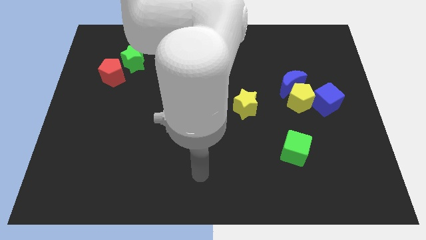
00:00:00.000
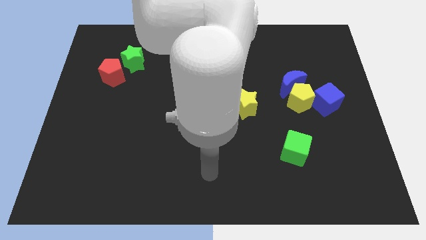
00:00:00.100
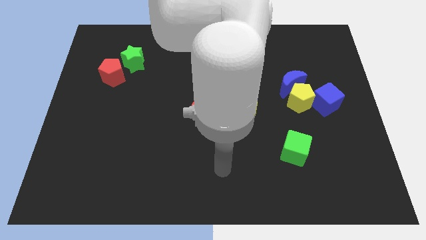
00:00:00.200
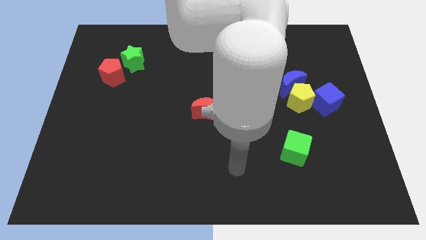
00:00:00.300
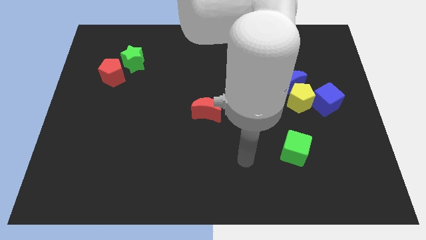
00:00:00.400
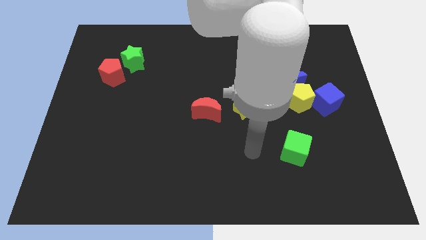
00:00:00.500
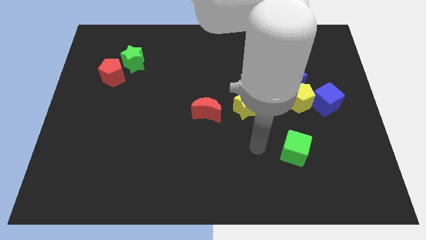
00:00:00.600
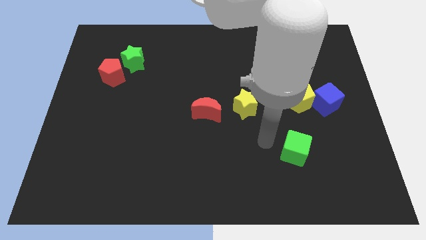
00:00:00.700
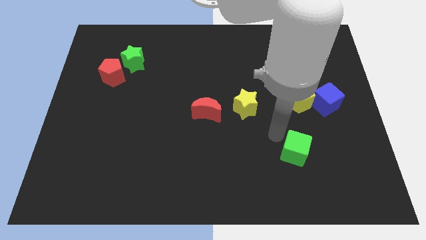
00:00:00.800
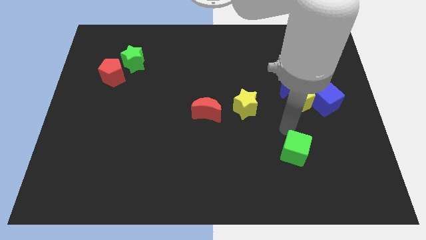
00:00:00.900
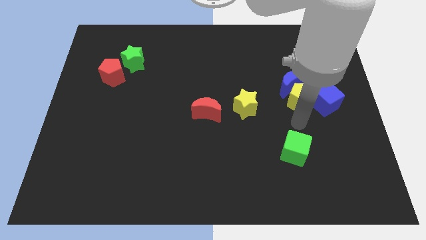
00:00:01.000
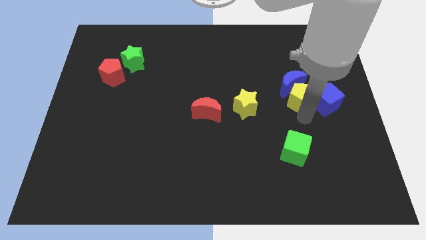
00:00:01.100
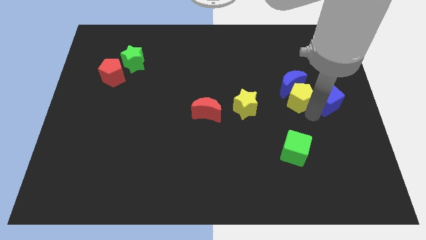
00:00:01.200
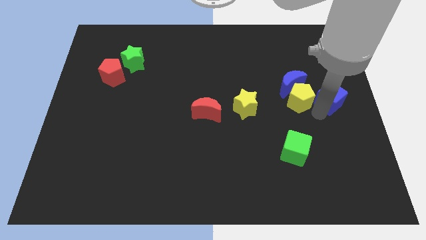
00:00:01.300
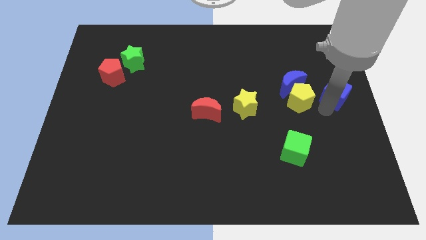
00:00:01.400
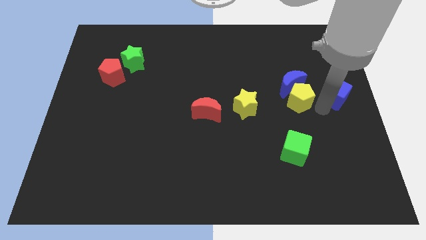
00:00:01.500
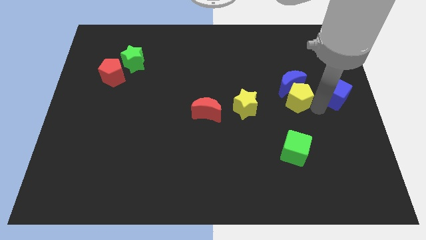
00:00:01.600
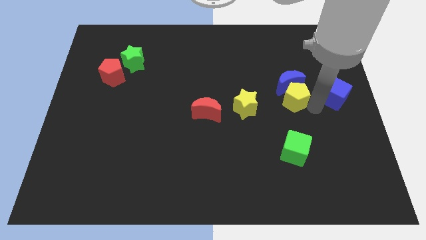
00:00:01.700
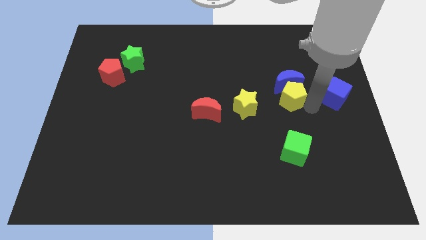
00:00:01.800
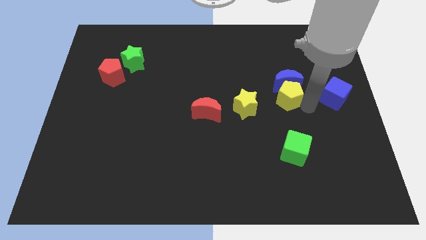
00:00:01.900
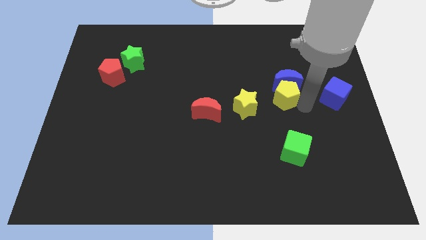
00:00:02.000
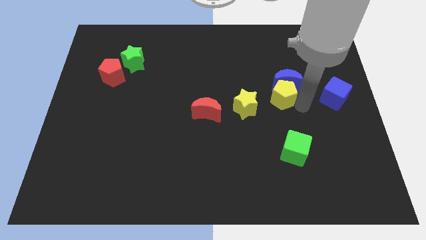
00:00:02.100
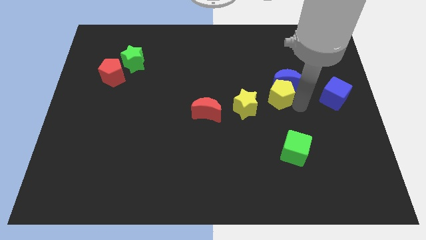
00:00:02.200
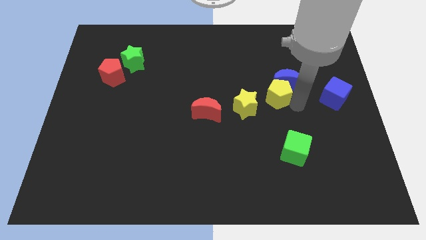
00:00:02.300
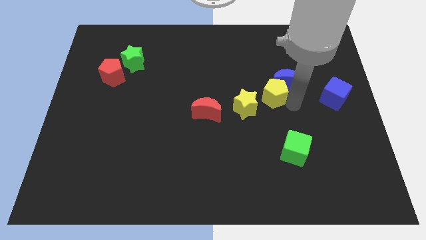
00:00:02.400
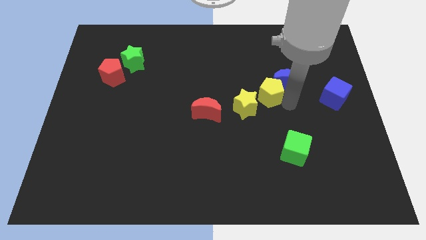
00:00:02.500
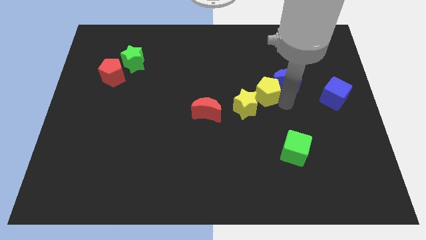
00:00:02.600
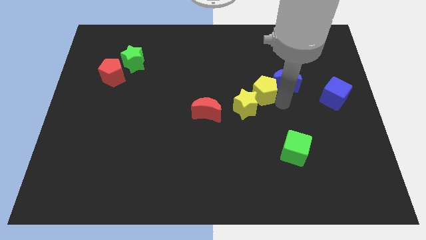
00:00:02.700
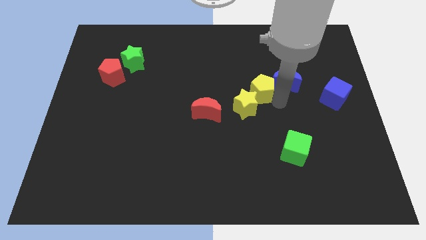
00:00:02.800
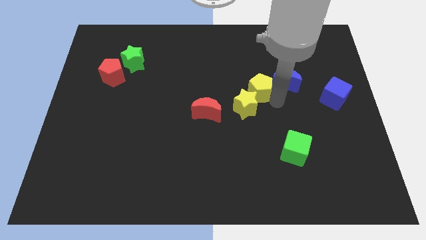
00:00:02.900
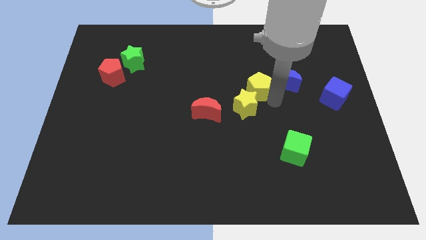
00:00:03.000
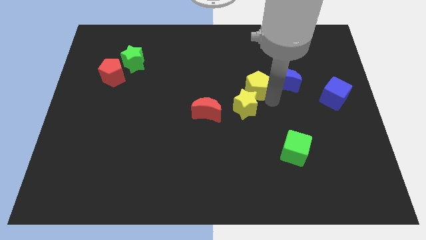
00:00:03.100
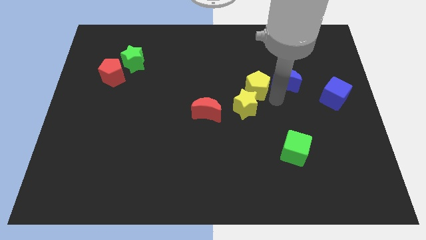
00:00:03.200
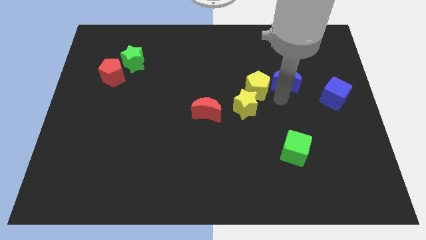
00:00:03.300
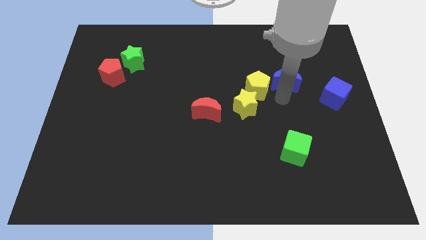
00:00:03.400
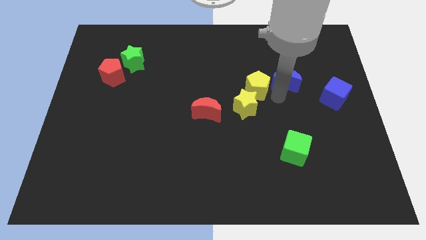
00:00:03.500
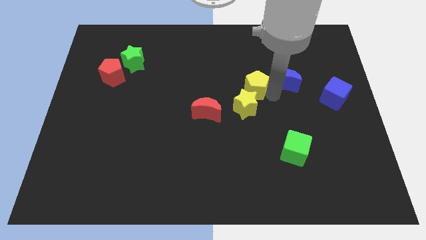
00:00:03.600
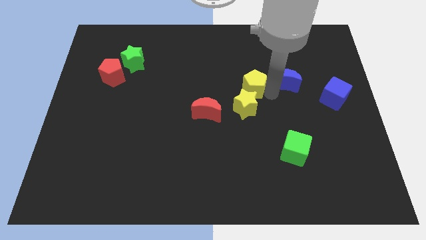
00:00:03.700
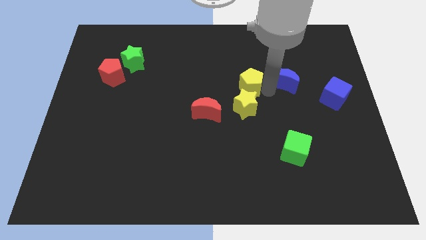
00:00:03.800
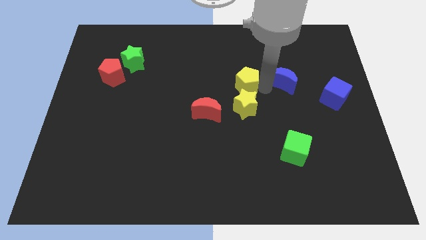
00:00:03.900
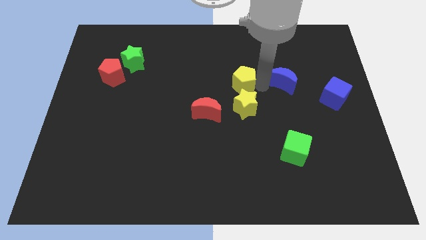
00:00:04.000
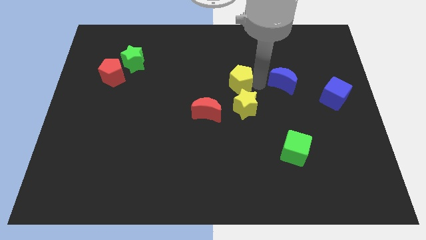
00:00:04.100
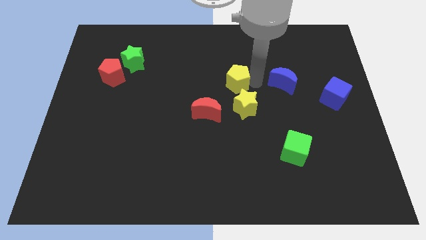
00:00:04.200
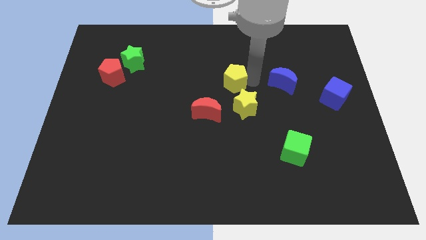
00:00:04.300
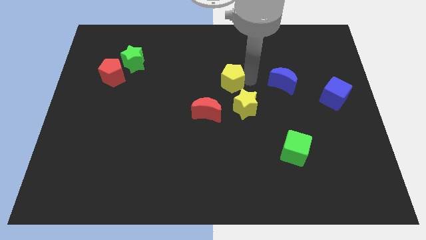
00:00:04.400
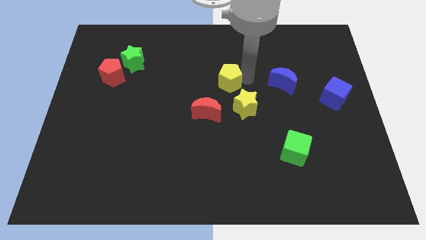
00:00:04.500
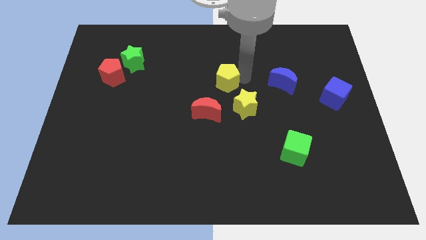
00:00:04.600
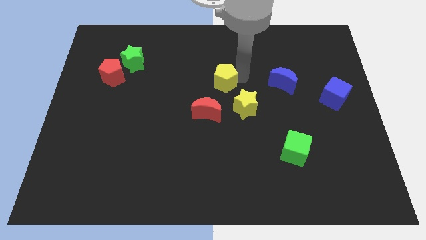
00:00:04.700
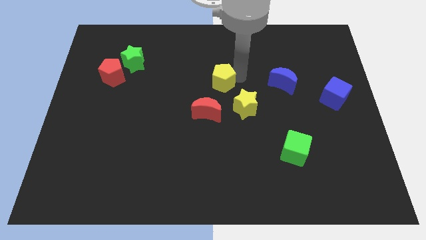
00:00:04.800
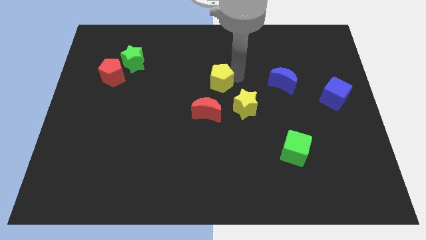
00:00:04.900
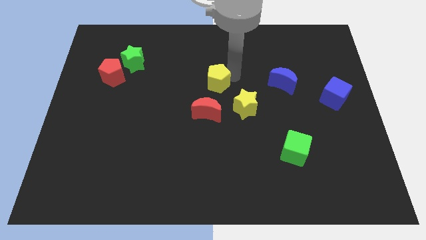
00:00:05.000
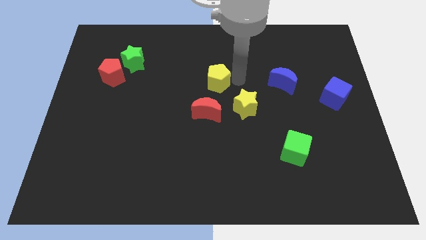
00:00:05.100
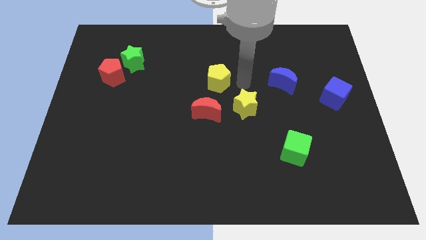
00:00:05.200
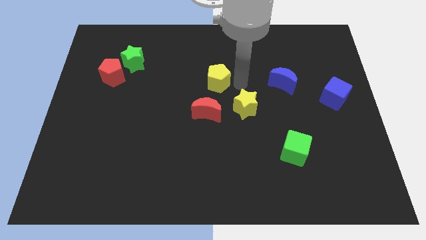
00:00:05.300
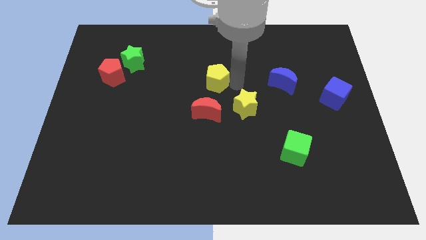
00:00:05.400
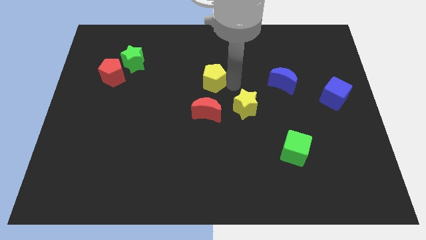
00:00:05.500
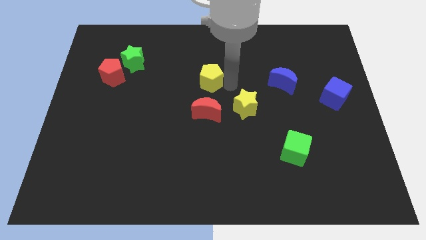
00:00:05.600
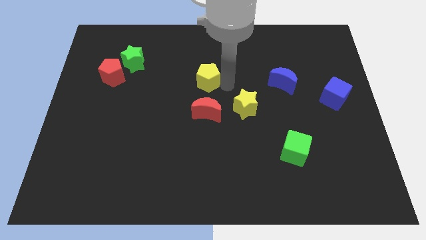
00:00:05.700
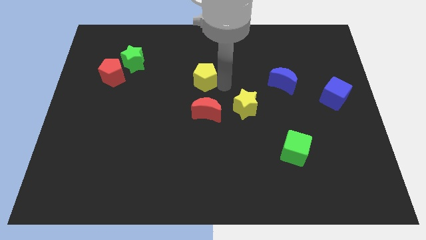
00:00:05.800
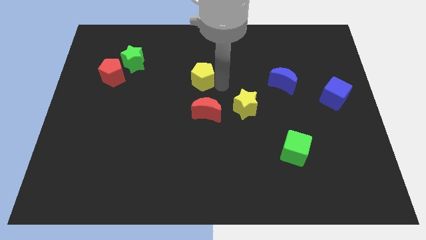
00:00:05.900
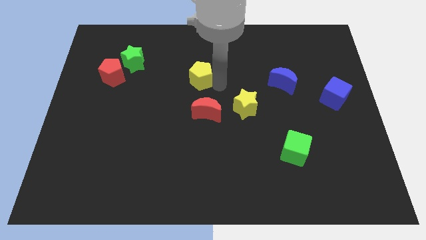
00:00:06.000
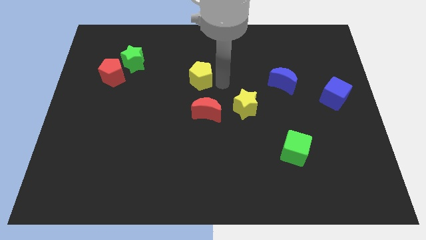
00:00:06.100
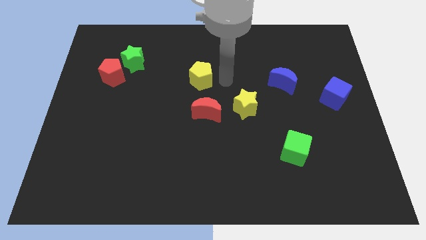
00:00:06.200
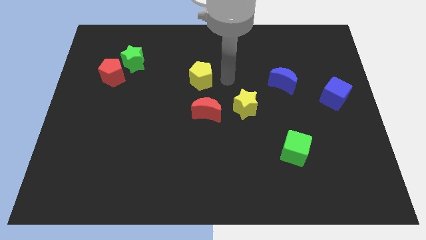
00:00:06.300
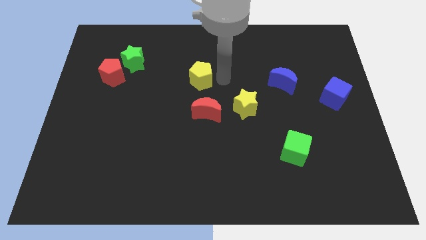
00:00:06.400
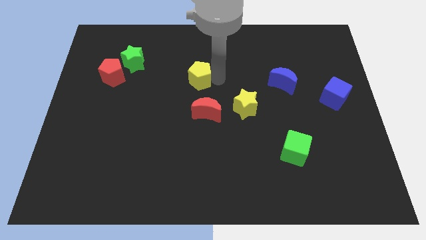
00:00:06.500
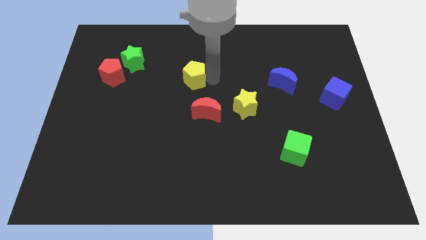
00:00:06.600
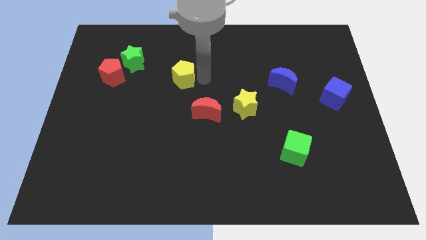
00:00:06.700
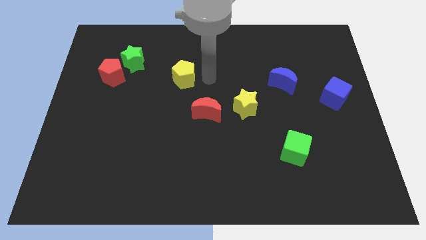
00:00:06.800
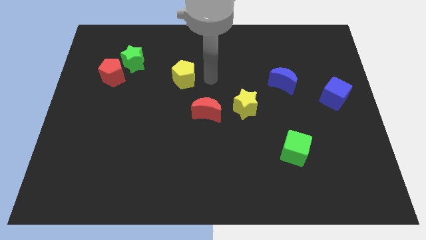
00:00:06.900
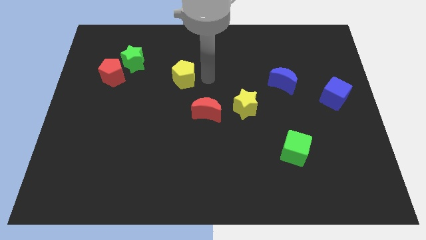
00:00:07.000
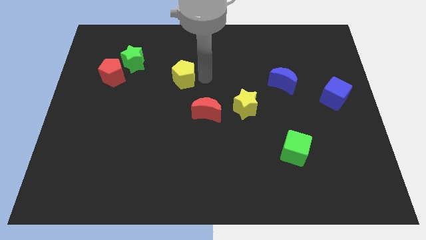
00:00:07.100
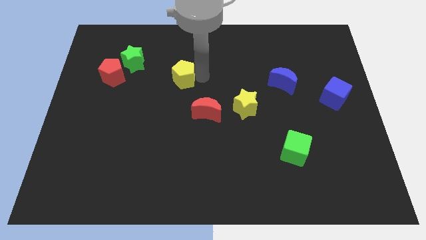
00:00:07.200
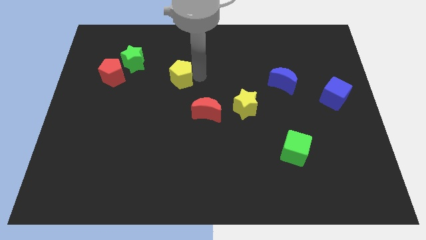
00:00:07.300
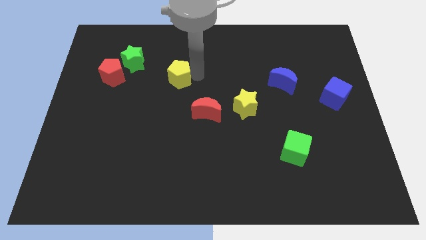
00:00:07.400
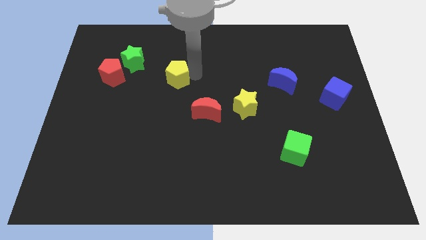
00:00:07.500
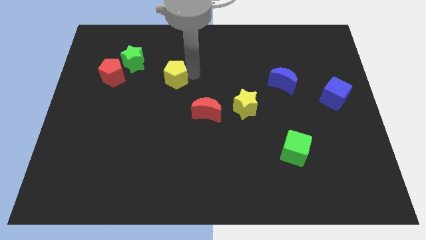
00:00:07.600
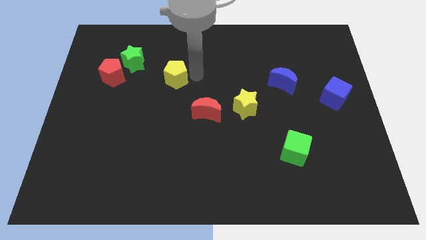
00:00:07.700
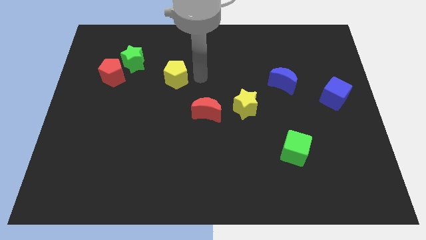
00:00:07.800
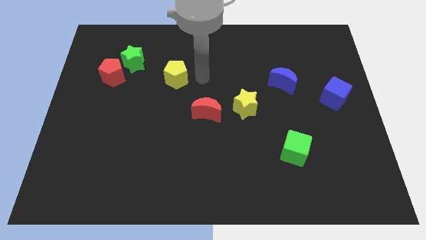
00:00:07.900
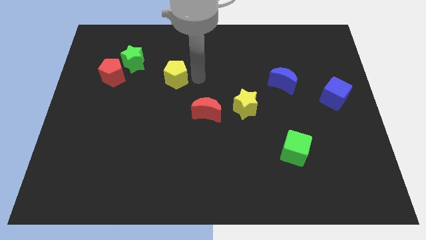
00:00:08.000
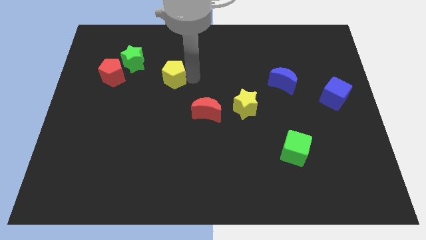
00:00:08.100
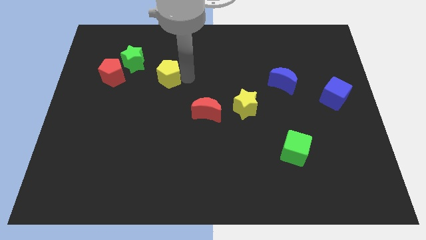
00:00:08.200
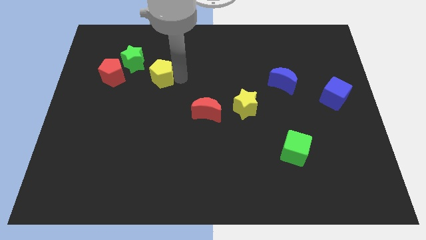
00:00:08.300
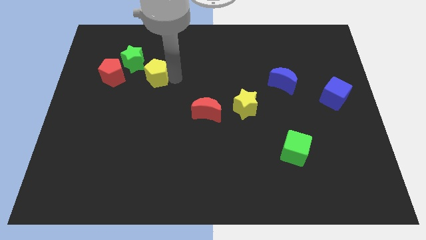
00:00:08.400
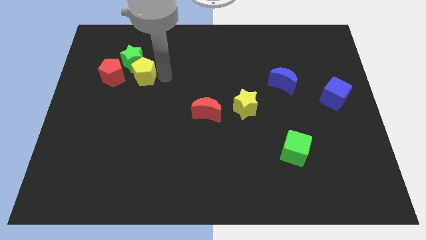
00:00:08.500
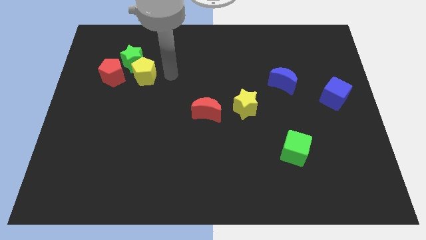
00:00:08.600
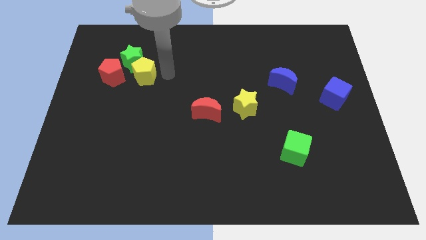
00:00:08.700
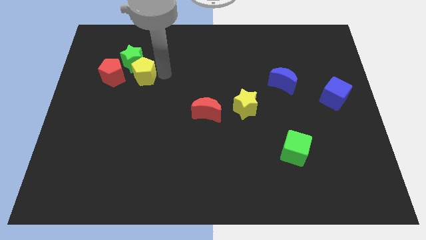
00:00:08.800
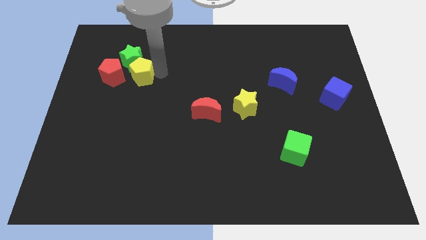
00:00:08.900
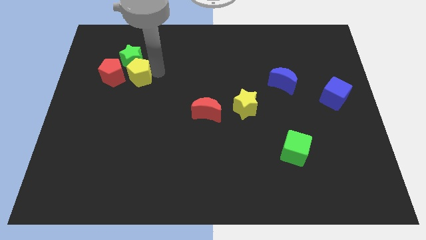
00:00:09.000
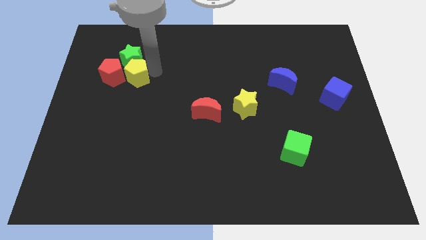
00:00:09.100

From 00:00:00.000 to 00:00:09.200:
push the yellow pentagon to the red pentagon
